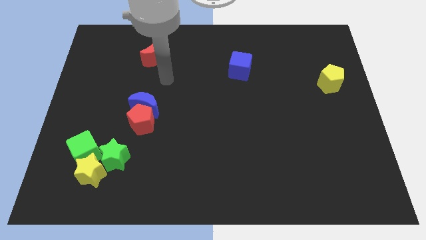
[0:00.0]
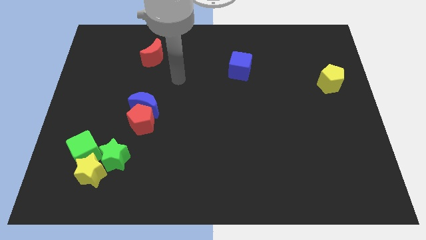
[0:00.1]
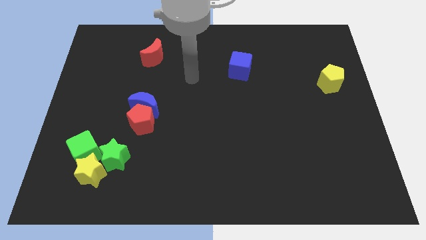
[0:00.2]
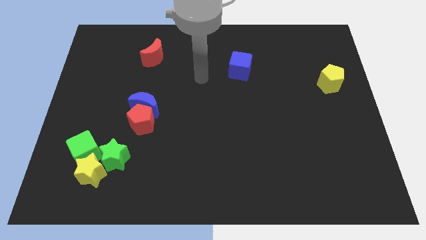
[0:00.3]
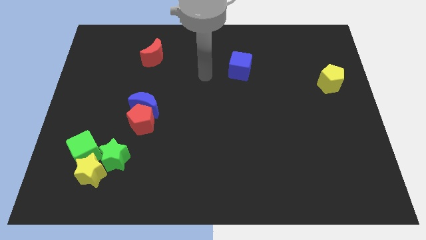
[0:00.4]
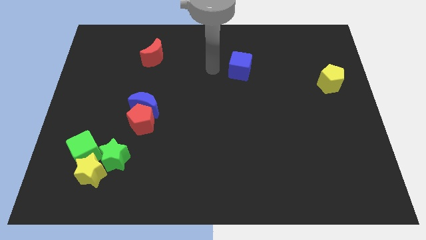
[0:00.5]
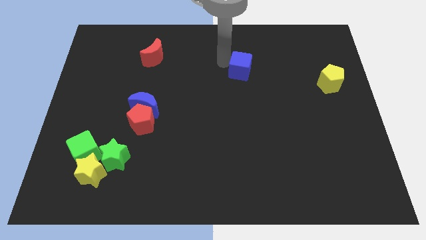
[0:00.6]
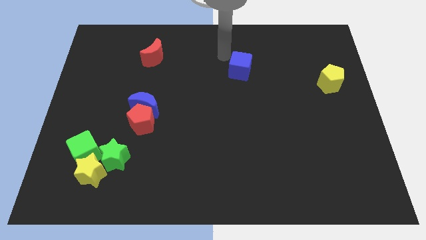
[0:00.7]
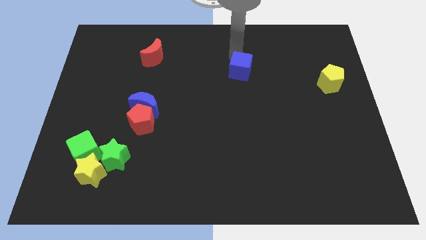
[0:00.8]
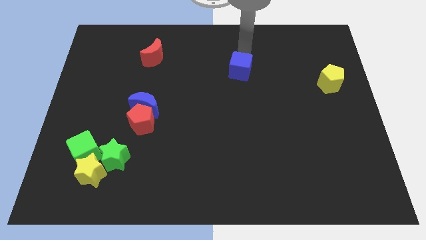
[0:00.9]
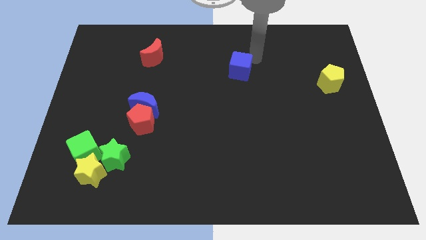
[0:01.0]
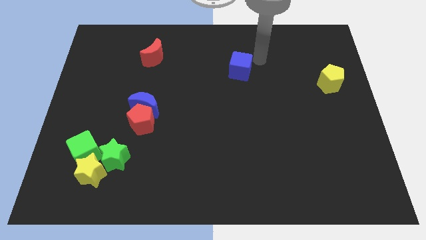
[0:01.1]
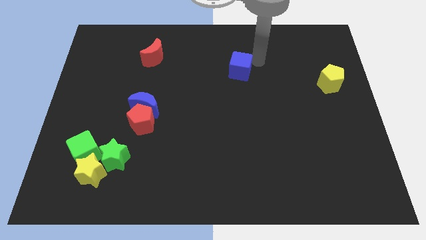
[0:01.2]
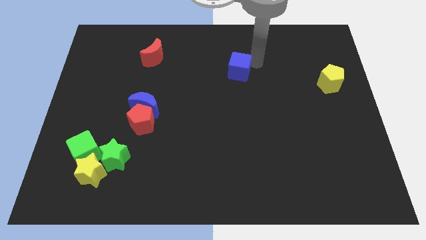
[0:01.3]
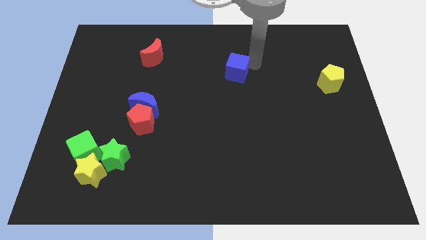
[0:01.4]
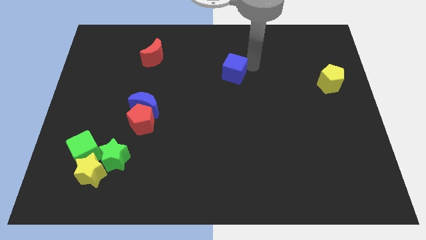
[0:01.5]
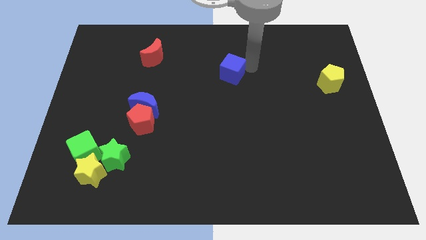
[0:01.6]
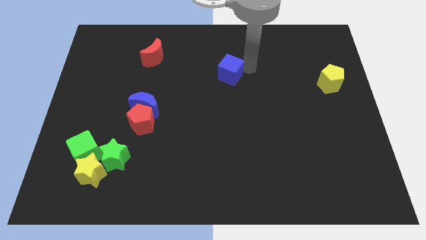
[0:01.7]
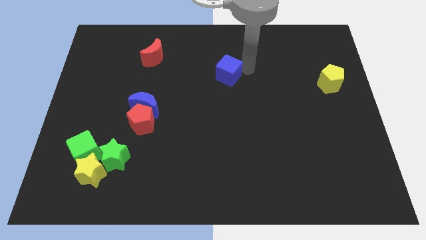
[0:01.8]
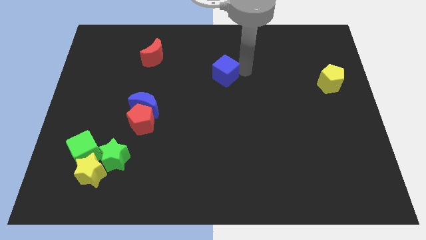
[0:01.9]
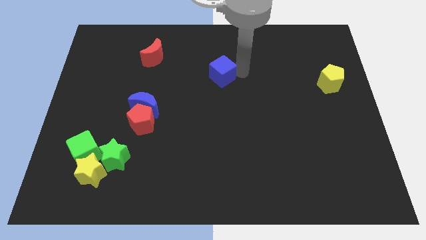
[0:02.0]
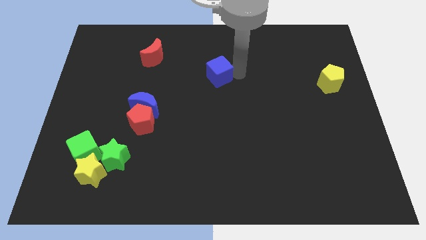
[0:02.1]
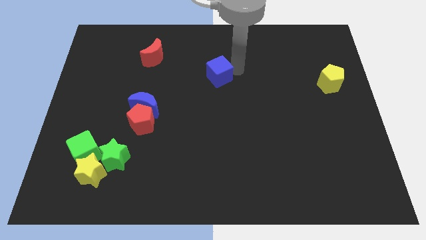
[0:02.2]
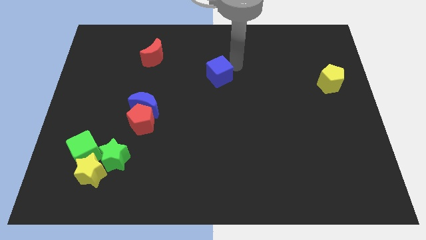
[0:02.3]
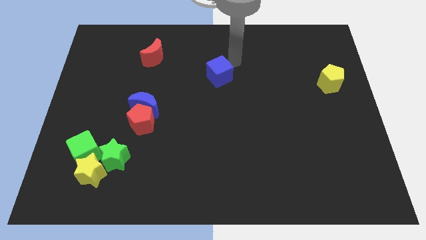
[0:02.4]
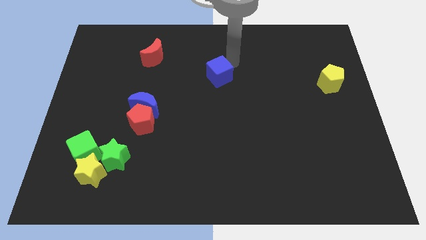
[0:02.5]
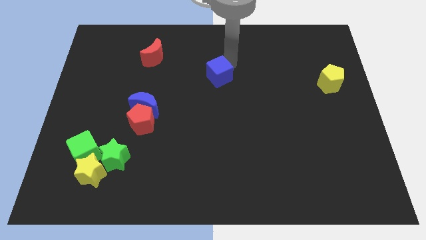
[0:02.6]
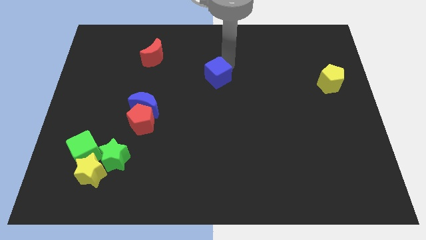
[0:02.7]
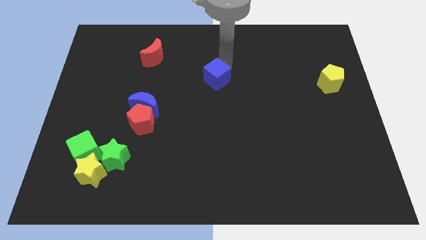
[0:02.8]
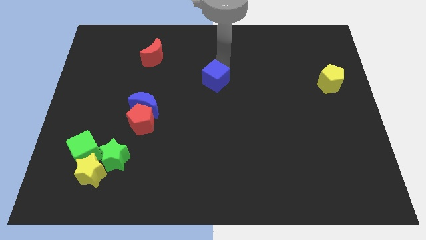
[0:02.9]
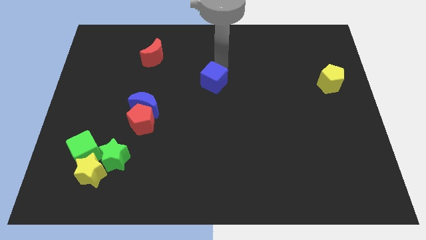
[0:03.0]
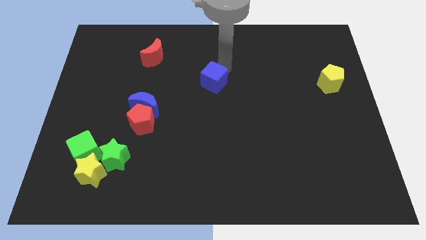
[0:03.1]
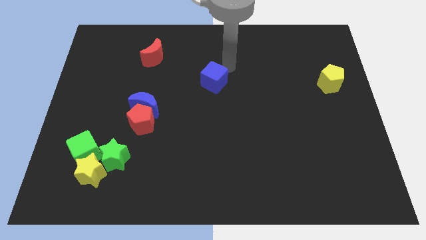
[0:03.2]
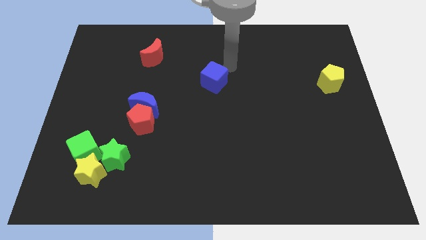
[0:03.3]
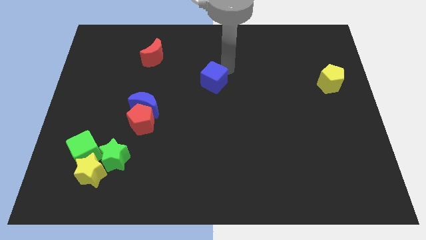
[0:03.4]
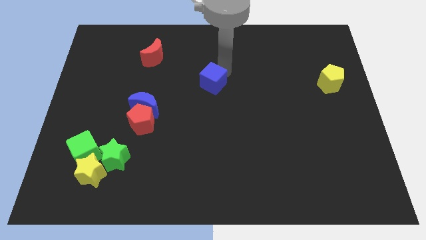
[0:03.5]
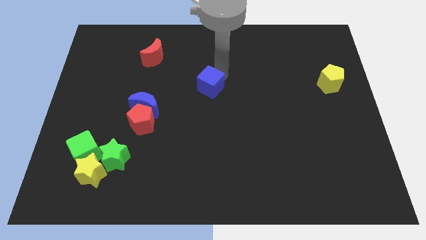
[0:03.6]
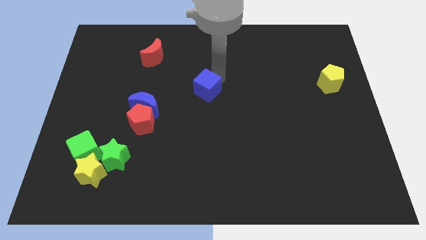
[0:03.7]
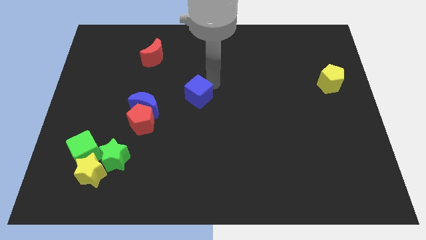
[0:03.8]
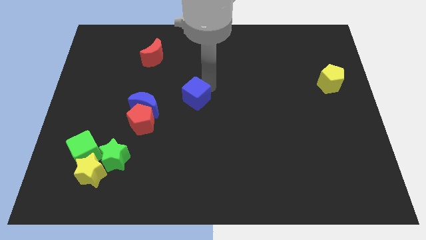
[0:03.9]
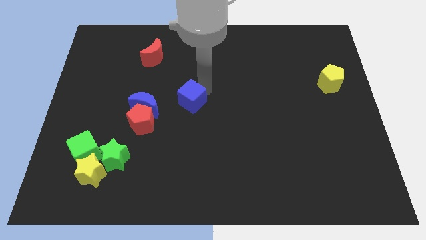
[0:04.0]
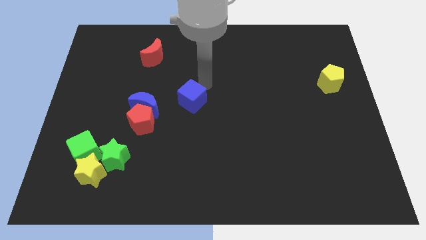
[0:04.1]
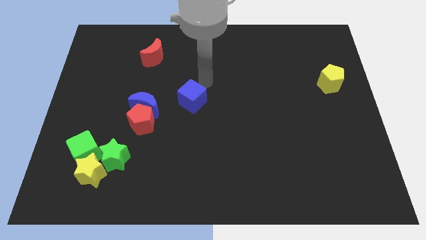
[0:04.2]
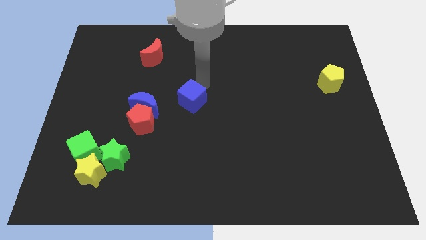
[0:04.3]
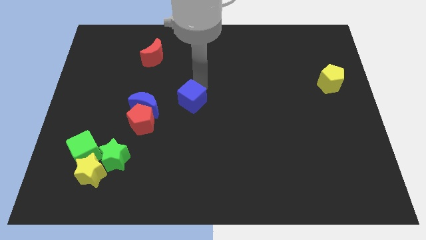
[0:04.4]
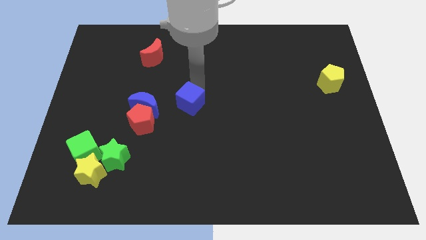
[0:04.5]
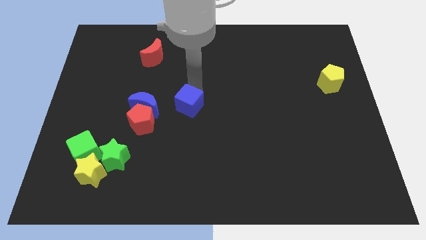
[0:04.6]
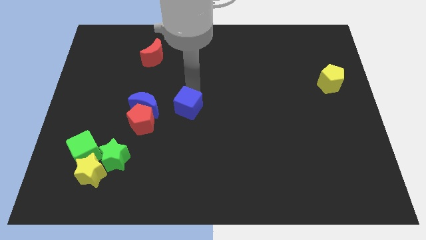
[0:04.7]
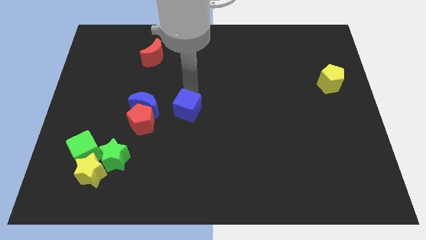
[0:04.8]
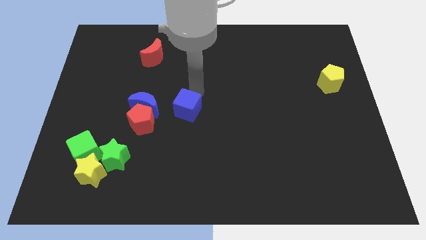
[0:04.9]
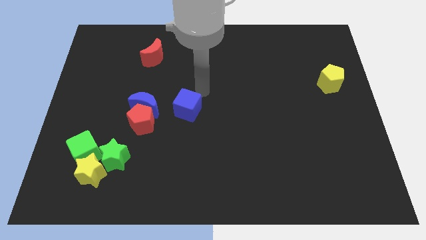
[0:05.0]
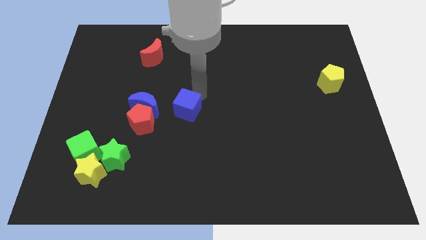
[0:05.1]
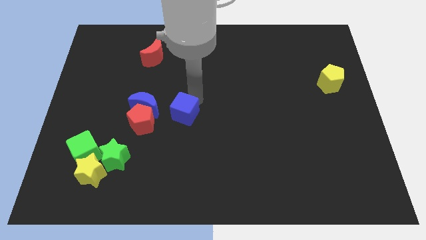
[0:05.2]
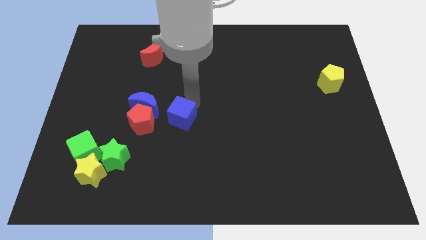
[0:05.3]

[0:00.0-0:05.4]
push the blue cube downwards and left diagonally

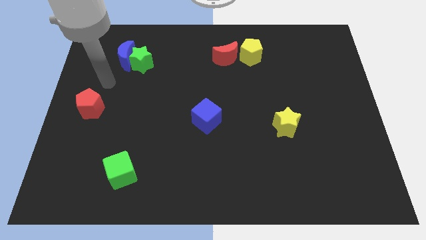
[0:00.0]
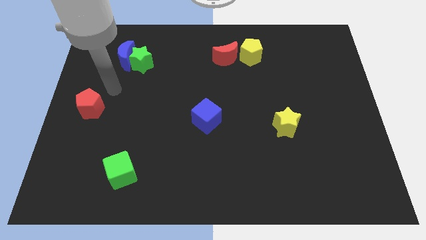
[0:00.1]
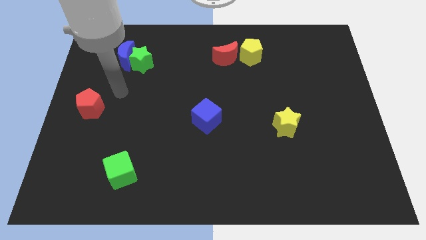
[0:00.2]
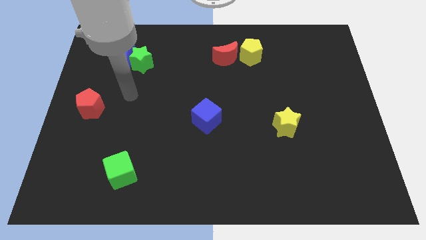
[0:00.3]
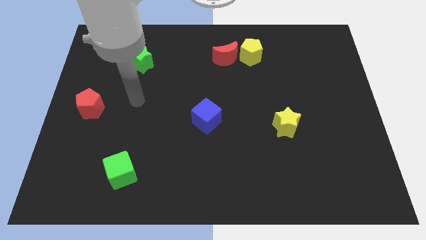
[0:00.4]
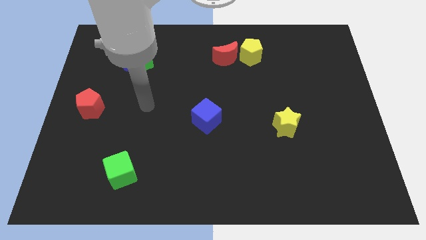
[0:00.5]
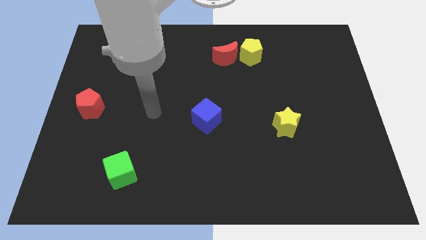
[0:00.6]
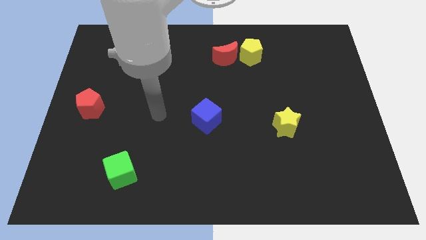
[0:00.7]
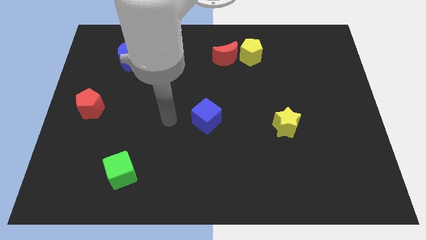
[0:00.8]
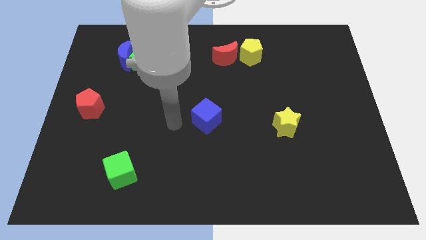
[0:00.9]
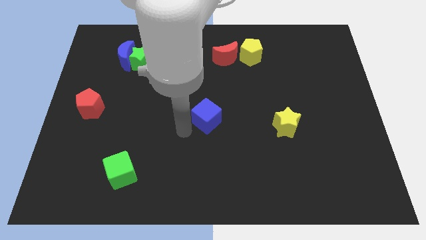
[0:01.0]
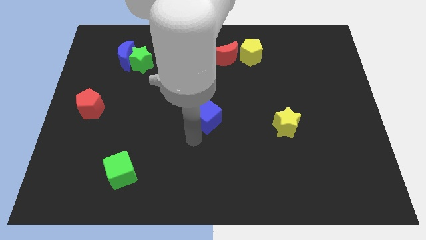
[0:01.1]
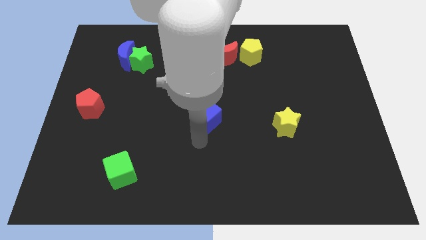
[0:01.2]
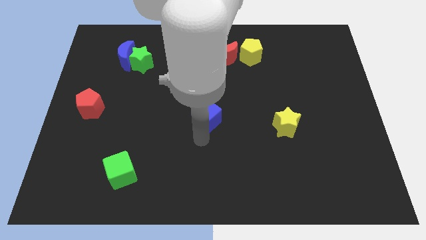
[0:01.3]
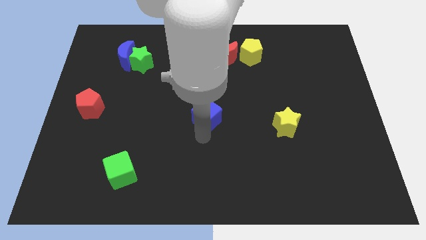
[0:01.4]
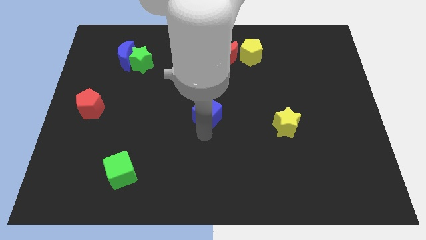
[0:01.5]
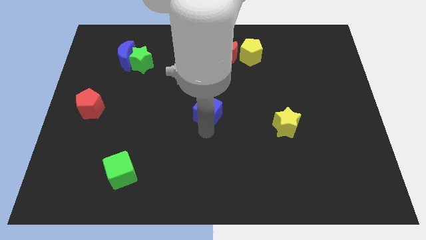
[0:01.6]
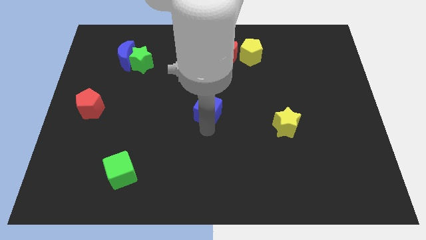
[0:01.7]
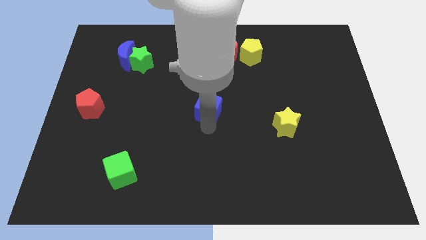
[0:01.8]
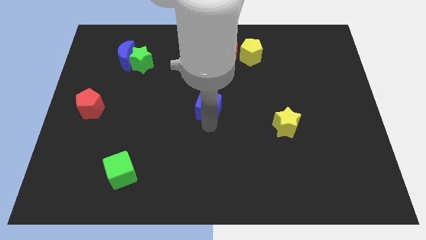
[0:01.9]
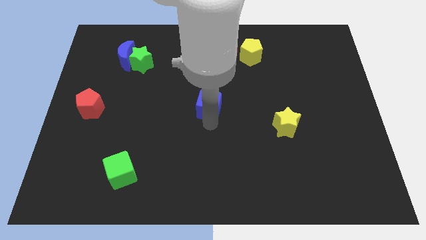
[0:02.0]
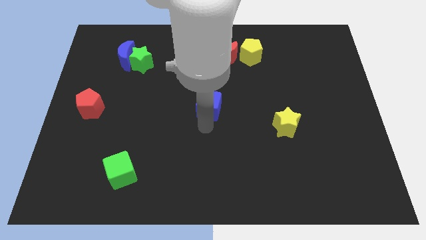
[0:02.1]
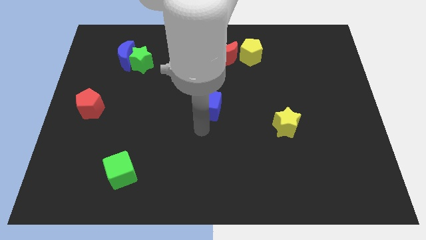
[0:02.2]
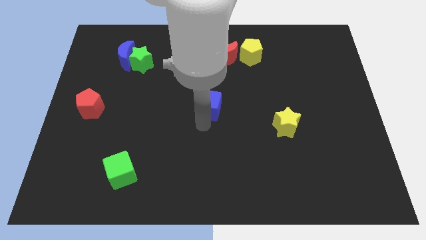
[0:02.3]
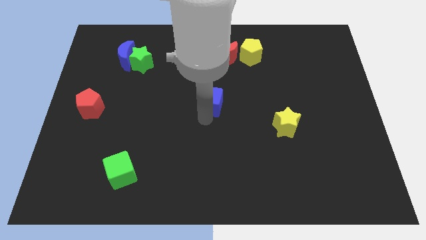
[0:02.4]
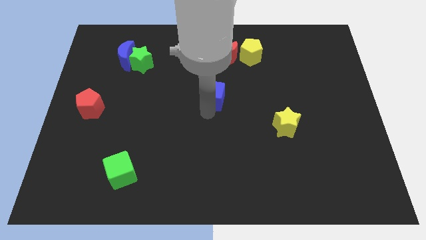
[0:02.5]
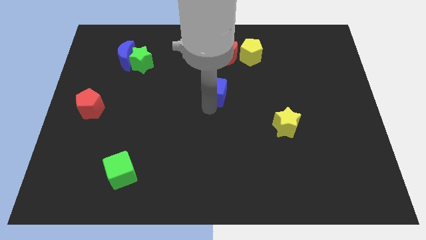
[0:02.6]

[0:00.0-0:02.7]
slightly slide the blue cube up

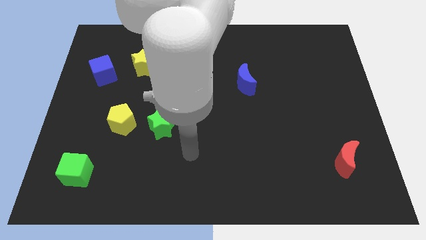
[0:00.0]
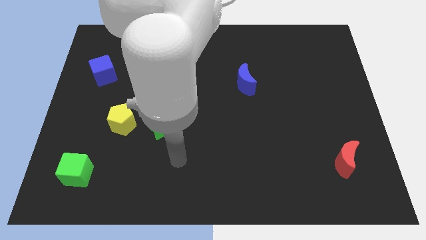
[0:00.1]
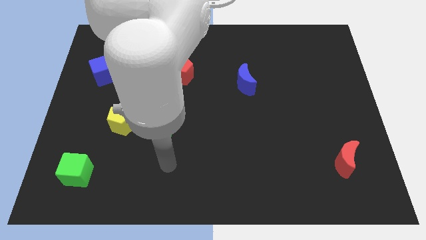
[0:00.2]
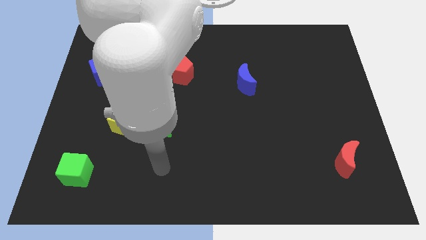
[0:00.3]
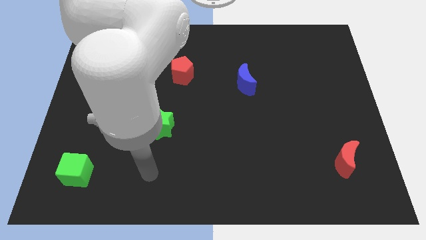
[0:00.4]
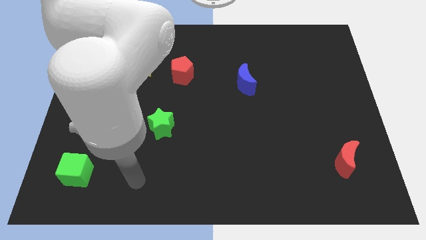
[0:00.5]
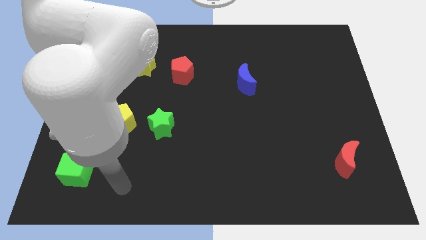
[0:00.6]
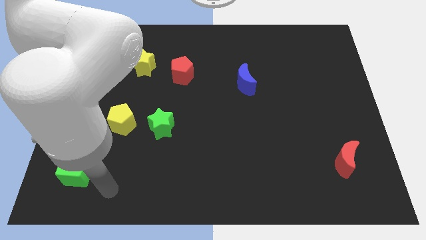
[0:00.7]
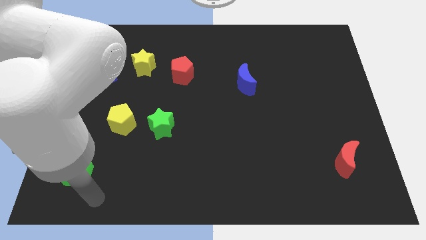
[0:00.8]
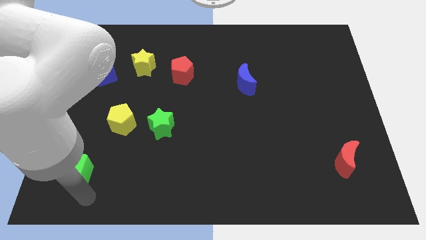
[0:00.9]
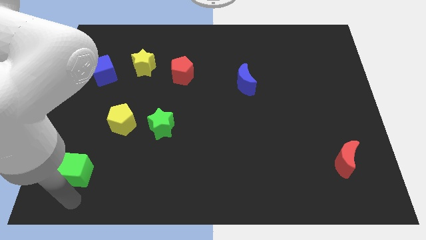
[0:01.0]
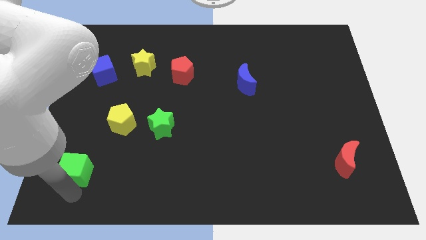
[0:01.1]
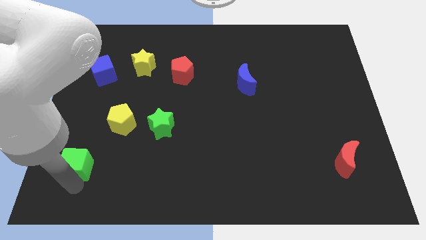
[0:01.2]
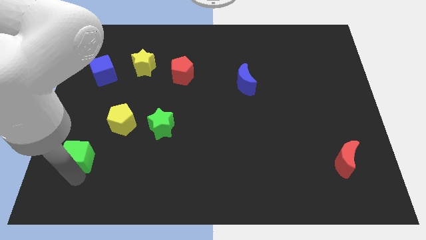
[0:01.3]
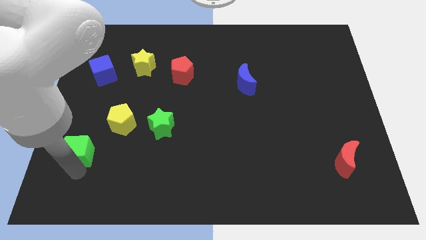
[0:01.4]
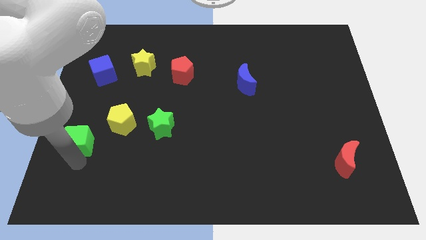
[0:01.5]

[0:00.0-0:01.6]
slightly slide the green cube upwards
